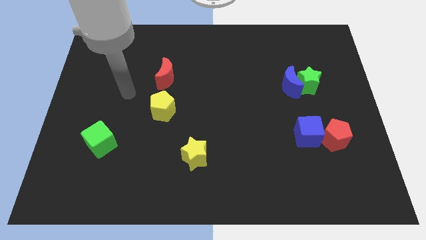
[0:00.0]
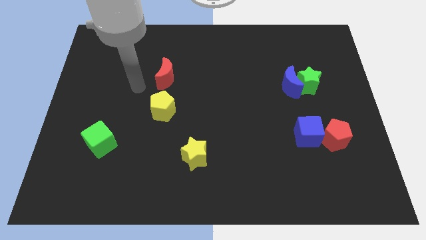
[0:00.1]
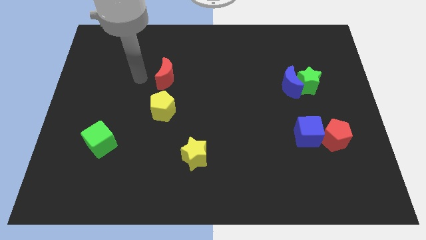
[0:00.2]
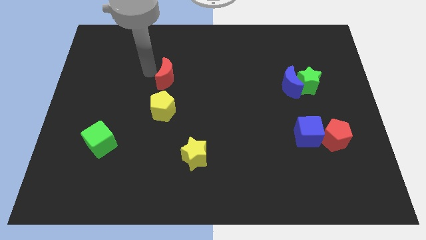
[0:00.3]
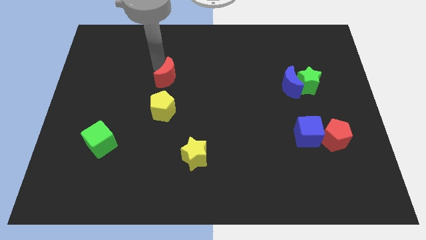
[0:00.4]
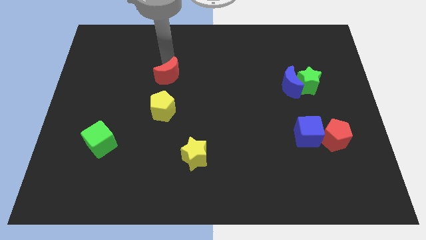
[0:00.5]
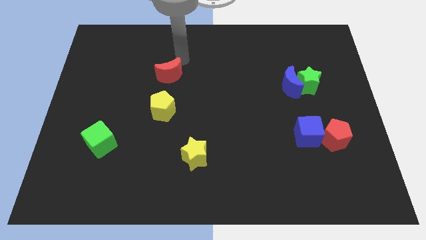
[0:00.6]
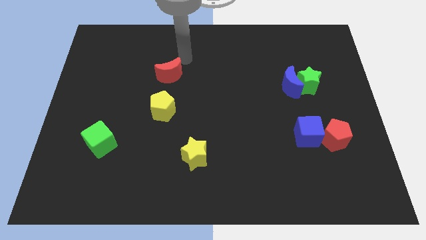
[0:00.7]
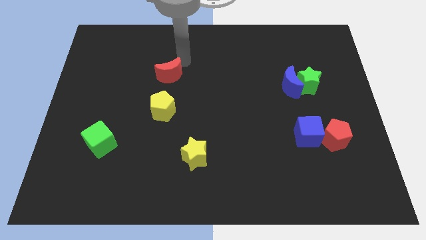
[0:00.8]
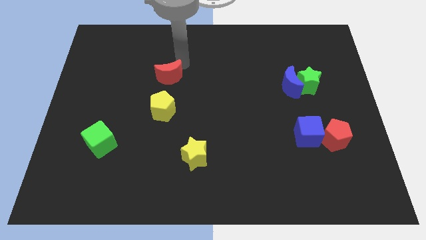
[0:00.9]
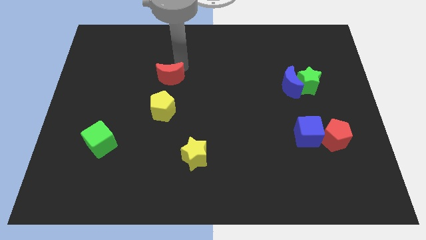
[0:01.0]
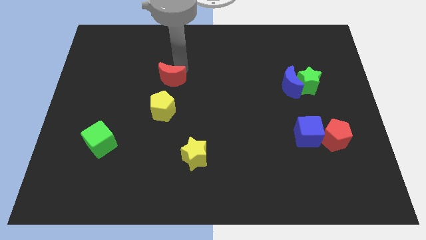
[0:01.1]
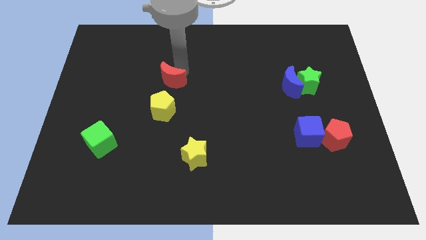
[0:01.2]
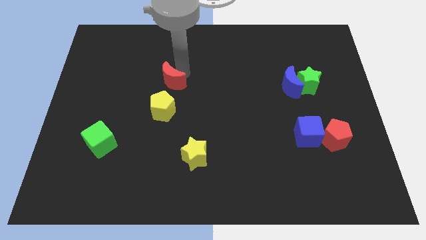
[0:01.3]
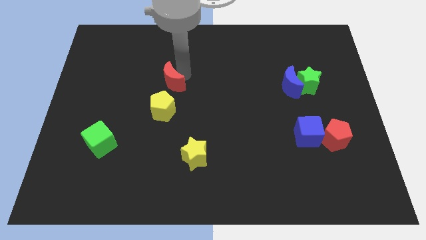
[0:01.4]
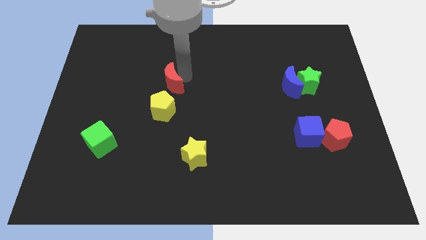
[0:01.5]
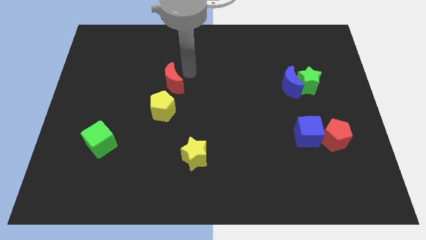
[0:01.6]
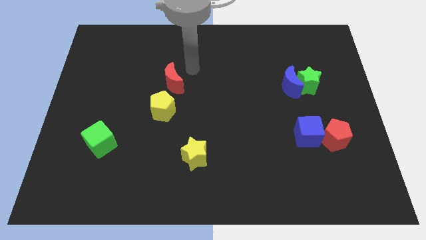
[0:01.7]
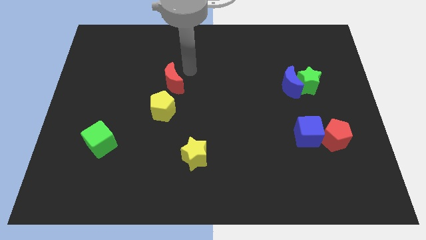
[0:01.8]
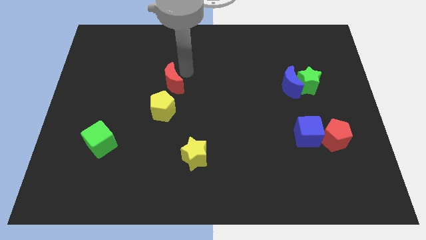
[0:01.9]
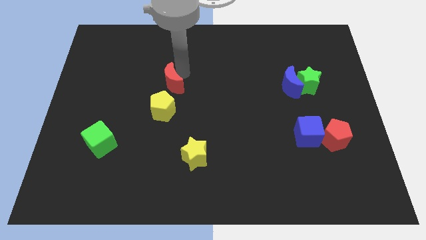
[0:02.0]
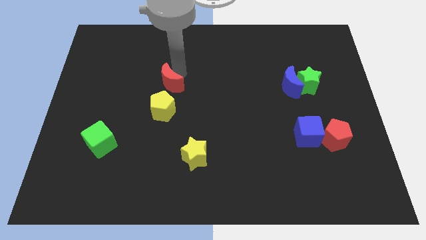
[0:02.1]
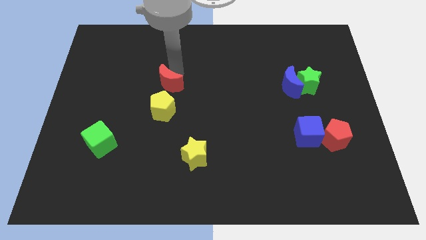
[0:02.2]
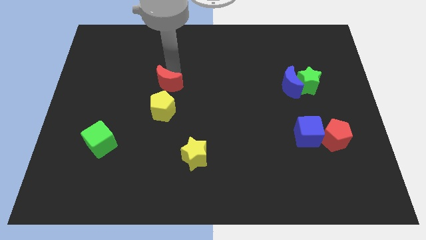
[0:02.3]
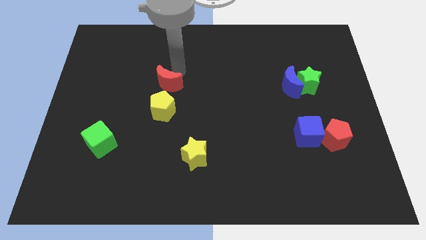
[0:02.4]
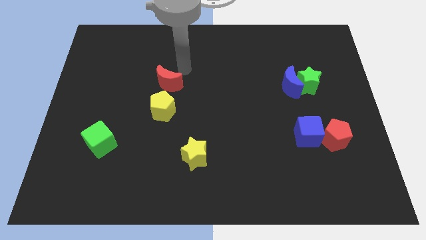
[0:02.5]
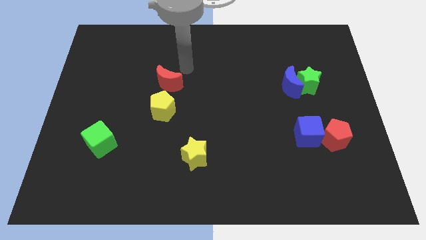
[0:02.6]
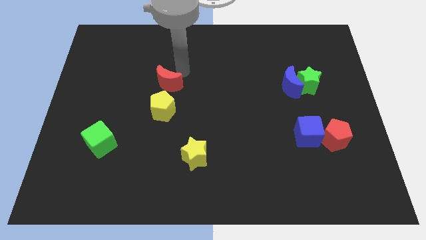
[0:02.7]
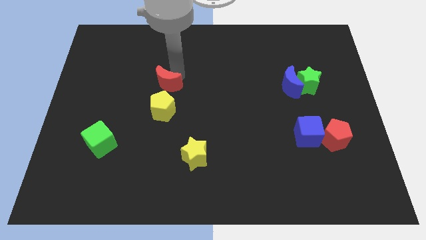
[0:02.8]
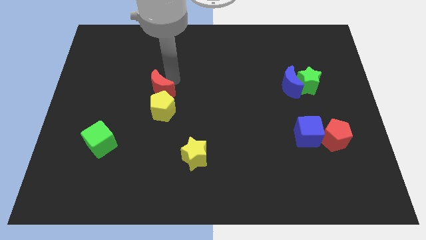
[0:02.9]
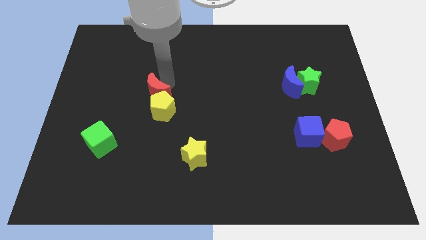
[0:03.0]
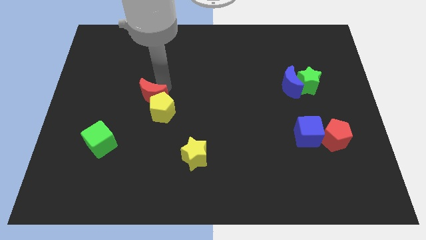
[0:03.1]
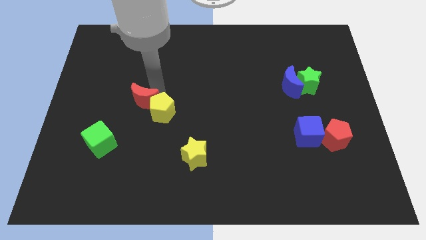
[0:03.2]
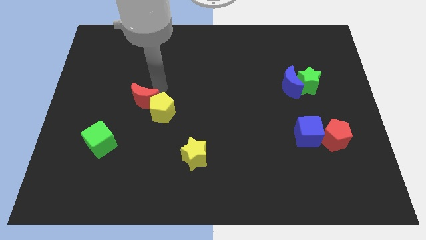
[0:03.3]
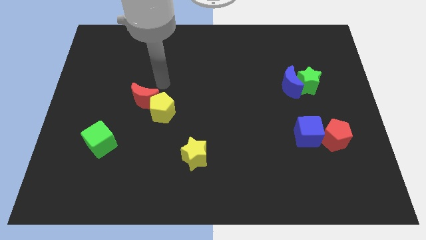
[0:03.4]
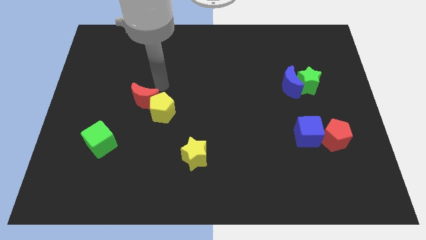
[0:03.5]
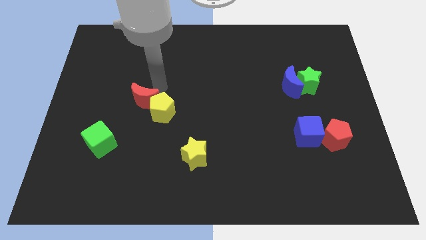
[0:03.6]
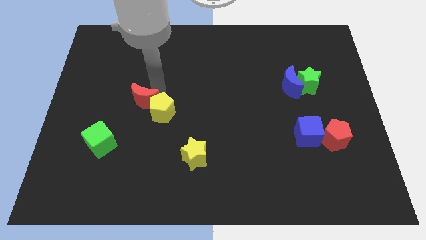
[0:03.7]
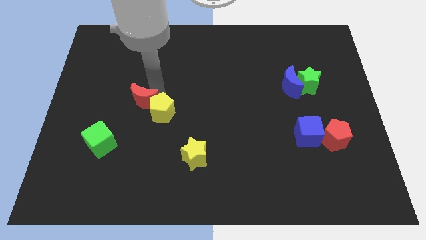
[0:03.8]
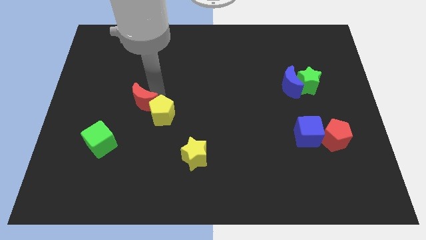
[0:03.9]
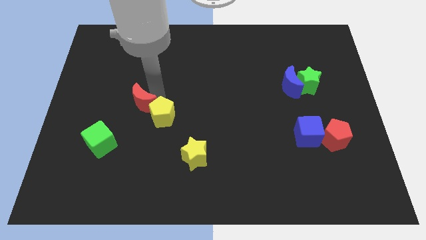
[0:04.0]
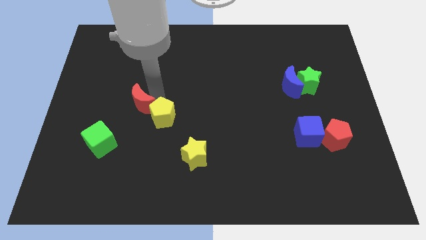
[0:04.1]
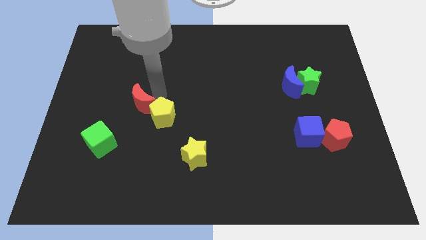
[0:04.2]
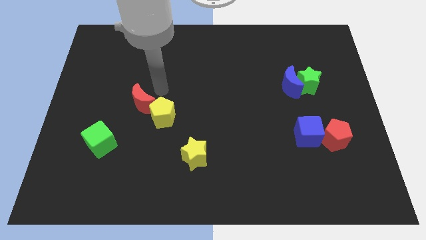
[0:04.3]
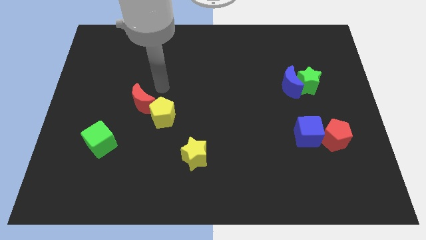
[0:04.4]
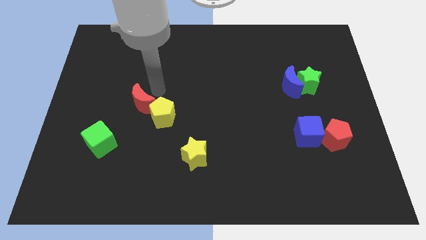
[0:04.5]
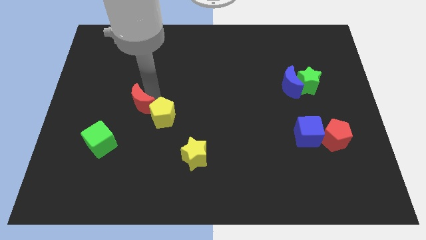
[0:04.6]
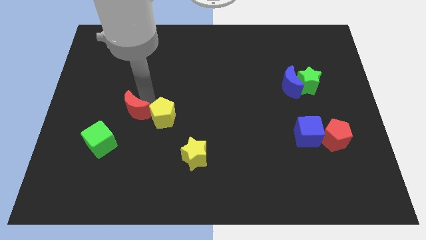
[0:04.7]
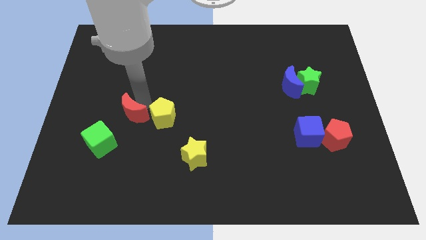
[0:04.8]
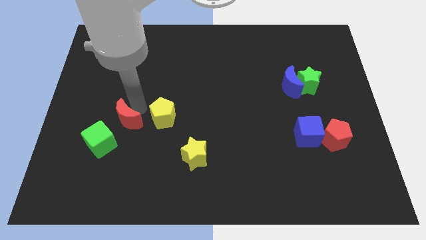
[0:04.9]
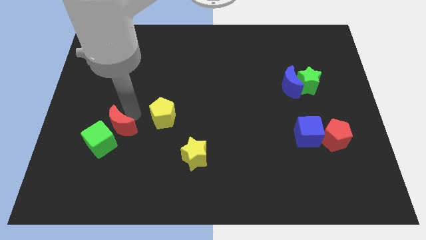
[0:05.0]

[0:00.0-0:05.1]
push the red moon to the green cube

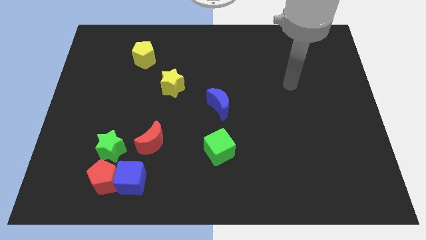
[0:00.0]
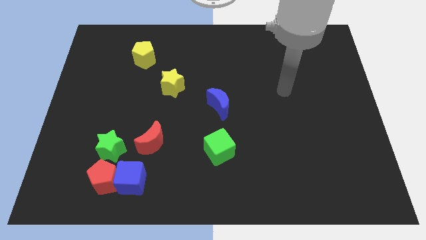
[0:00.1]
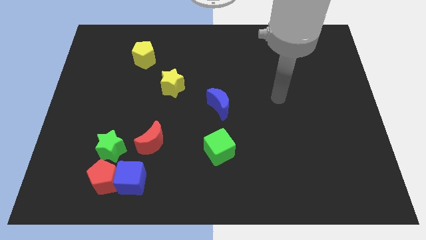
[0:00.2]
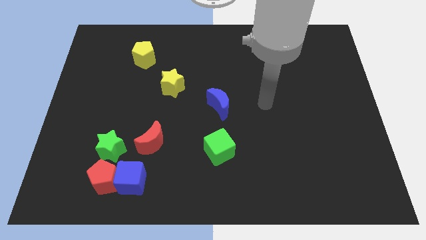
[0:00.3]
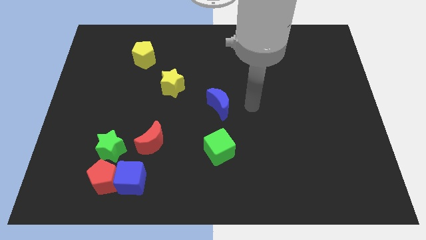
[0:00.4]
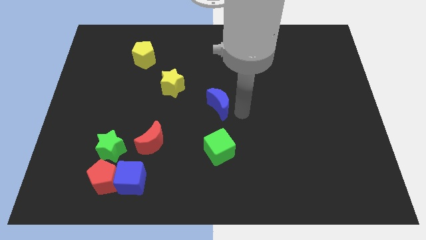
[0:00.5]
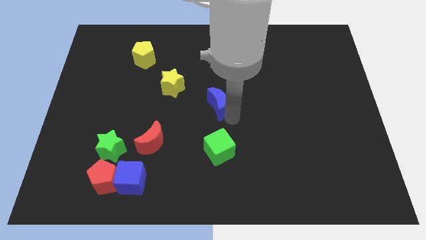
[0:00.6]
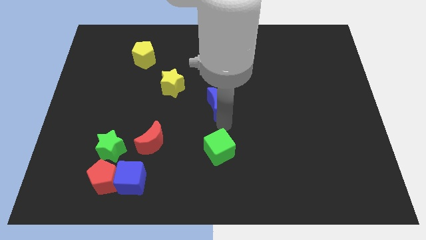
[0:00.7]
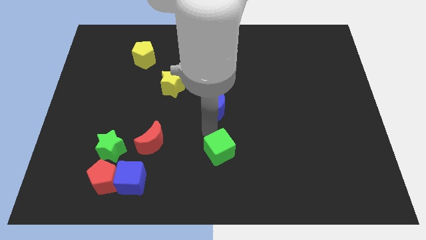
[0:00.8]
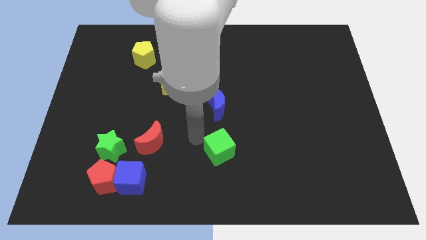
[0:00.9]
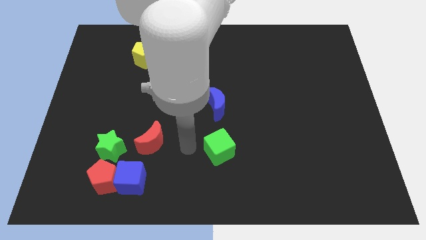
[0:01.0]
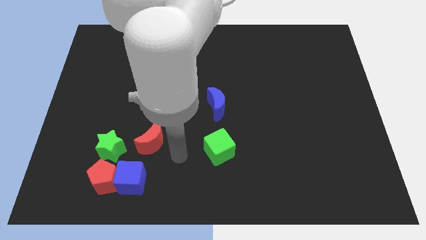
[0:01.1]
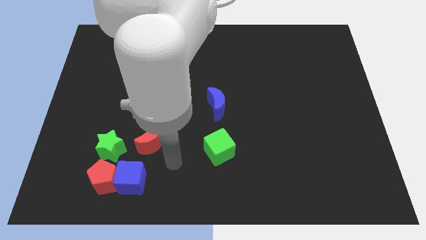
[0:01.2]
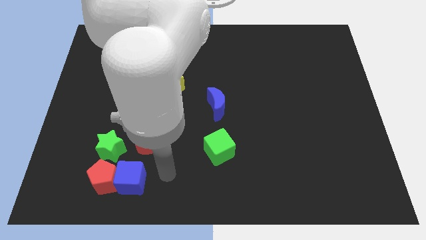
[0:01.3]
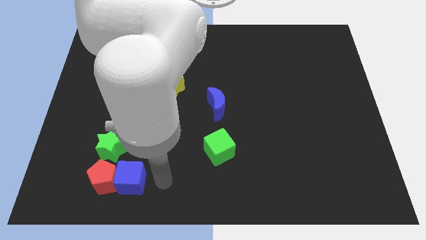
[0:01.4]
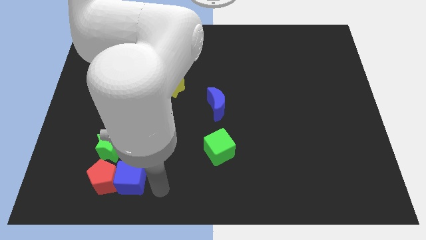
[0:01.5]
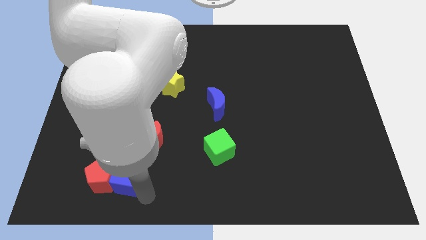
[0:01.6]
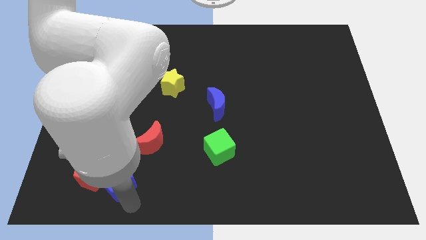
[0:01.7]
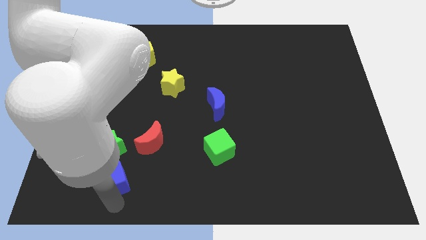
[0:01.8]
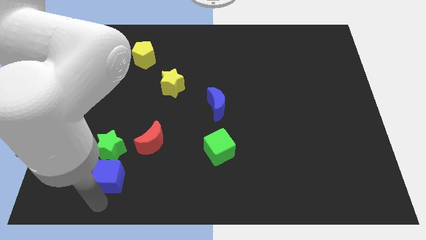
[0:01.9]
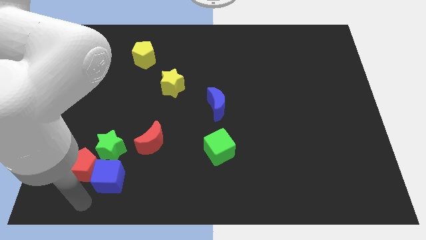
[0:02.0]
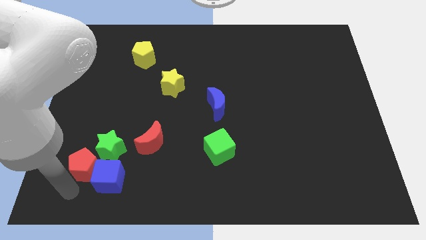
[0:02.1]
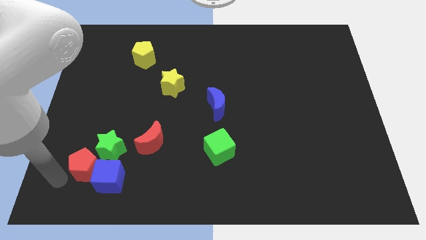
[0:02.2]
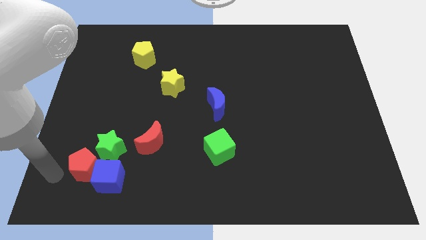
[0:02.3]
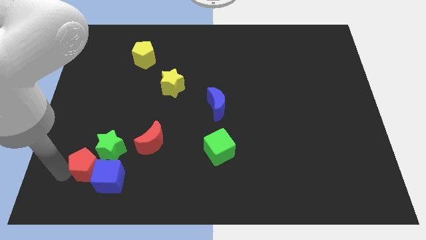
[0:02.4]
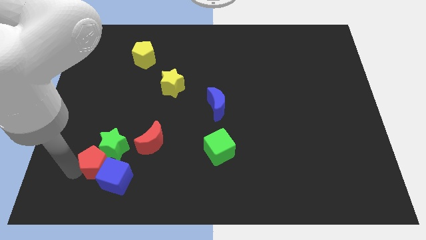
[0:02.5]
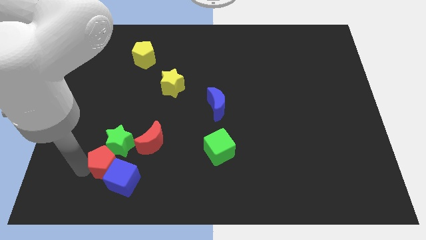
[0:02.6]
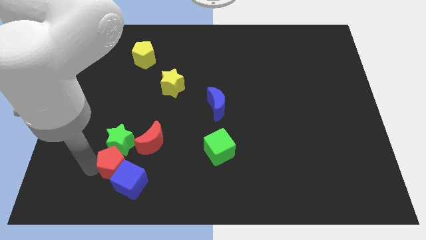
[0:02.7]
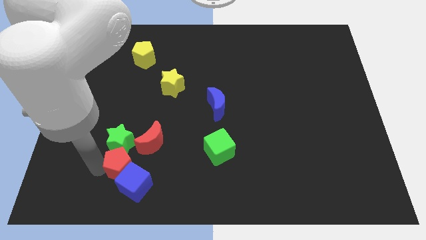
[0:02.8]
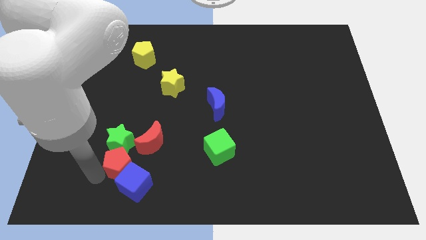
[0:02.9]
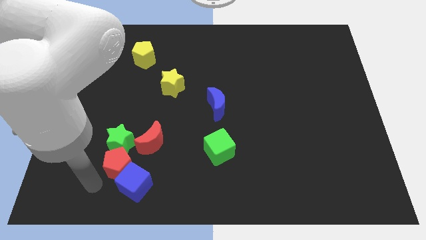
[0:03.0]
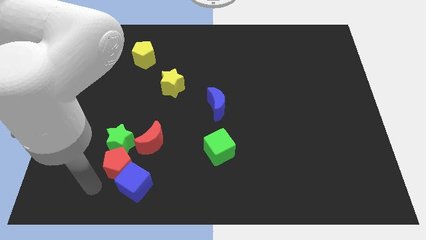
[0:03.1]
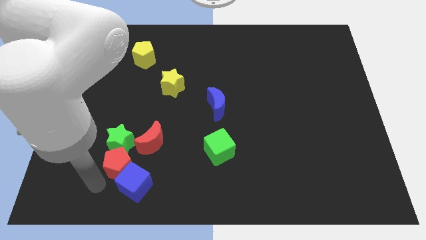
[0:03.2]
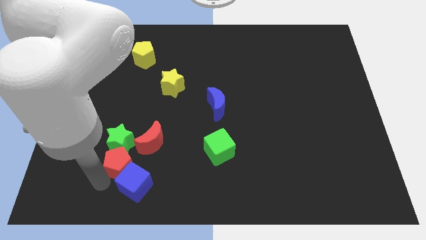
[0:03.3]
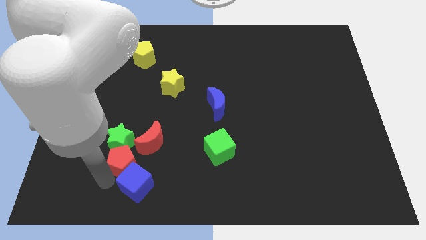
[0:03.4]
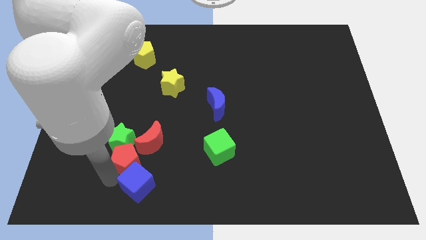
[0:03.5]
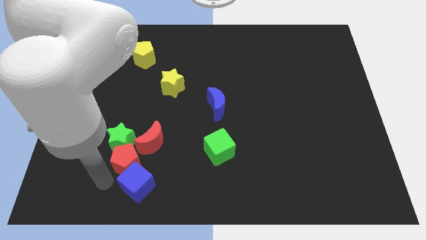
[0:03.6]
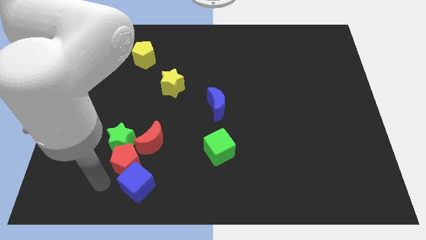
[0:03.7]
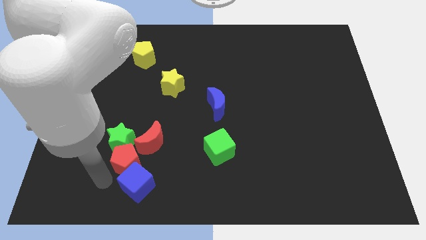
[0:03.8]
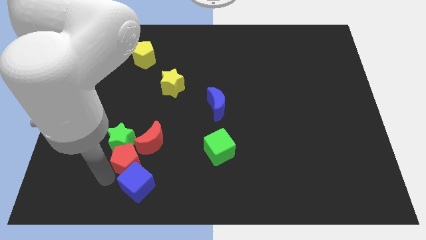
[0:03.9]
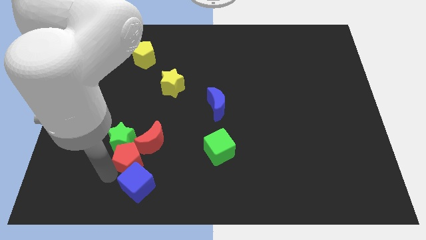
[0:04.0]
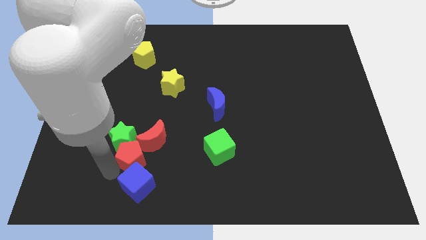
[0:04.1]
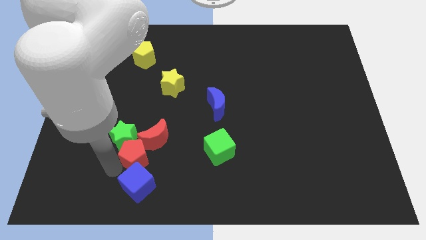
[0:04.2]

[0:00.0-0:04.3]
put the red pentagon to the red moon
